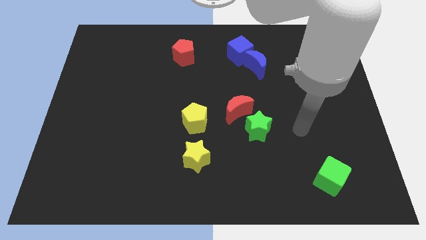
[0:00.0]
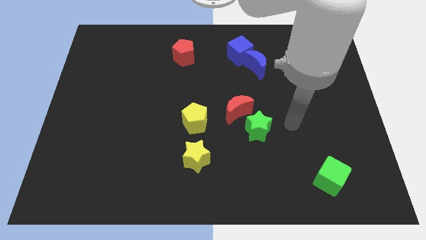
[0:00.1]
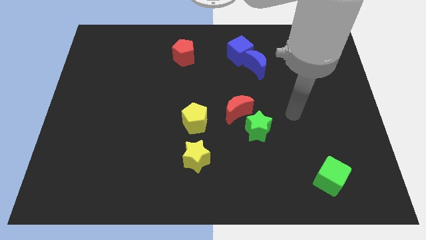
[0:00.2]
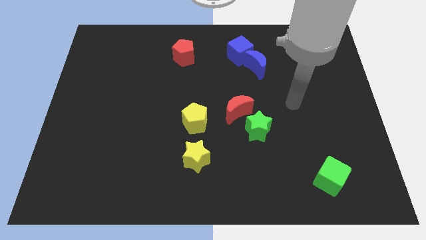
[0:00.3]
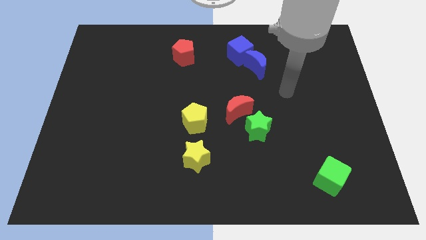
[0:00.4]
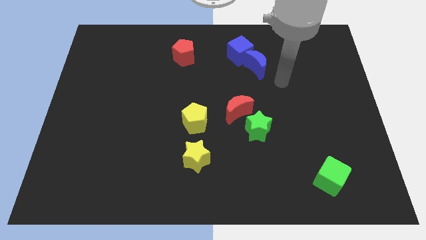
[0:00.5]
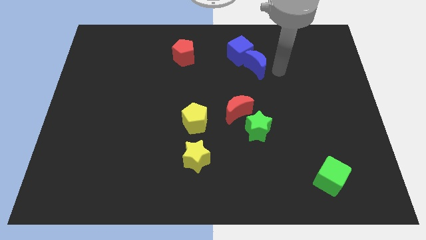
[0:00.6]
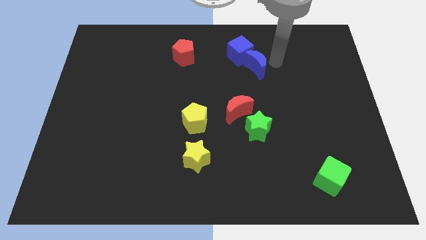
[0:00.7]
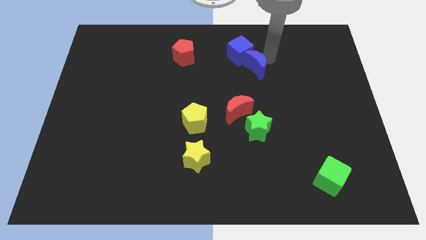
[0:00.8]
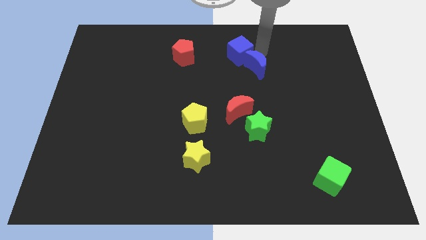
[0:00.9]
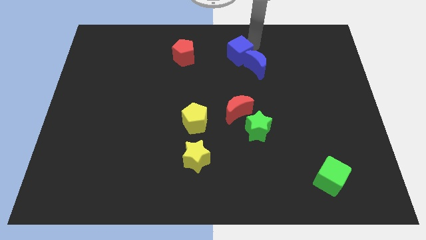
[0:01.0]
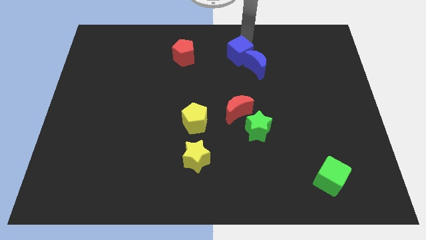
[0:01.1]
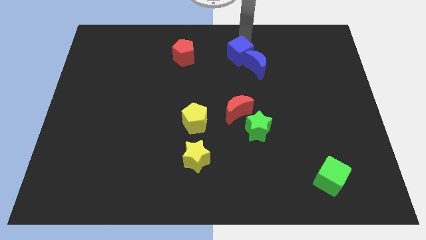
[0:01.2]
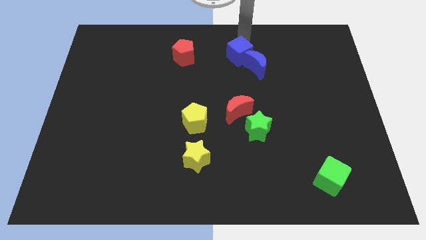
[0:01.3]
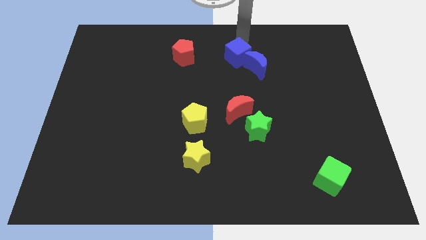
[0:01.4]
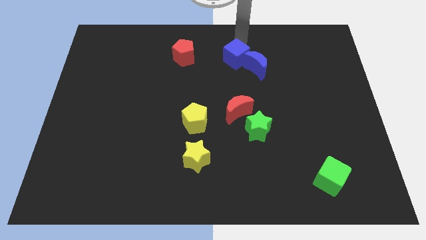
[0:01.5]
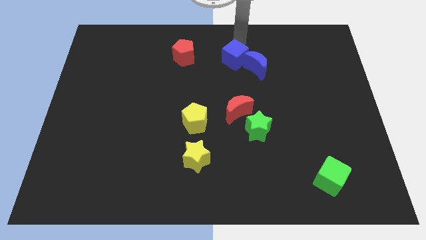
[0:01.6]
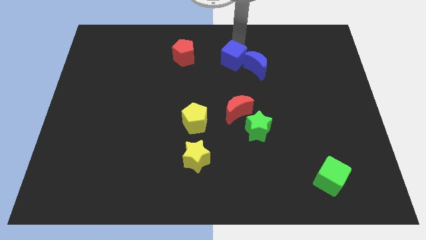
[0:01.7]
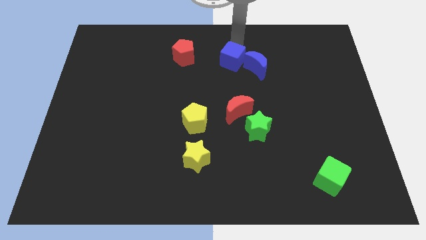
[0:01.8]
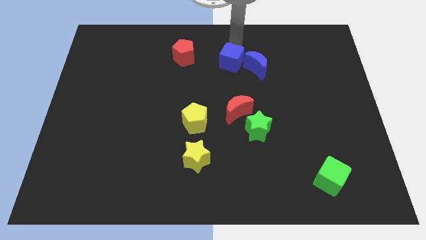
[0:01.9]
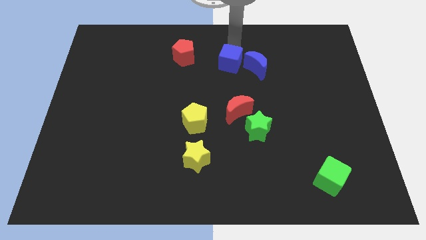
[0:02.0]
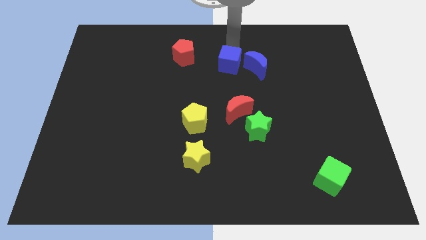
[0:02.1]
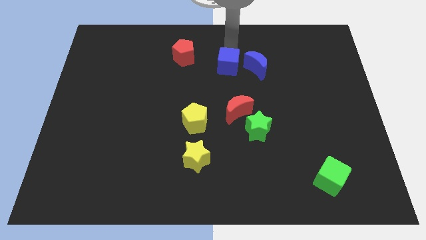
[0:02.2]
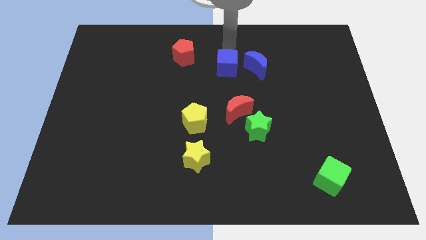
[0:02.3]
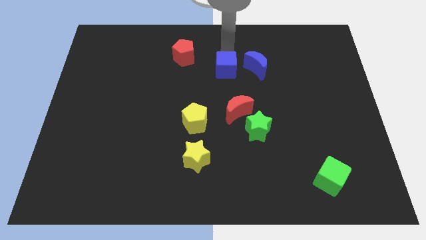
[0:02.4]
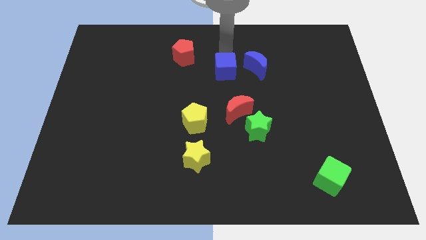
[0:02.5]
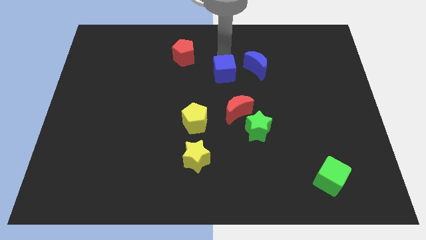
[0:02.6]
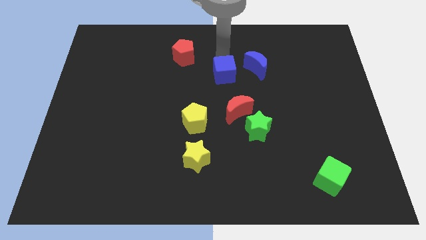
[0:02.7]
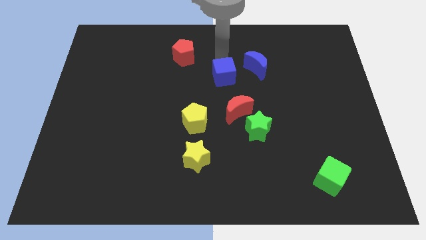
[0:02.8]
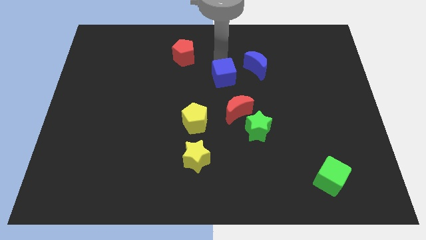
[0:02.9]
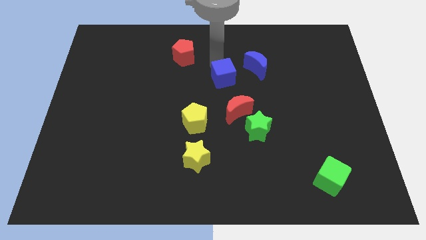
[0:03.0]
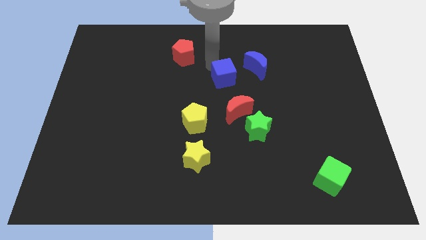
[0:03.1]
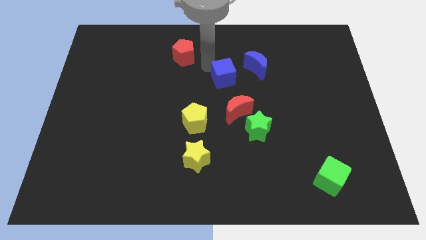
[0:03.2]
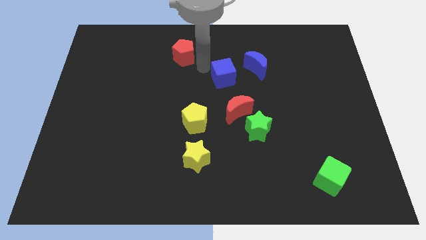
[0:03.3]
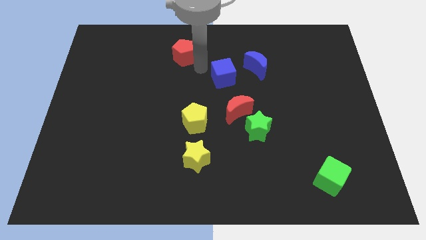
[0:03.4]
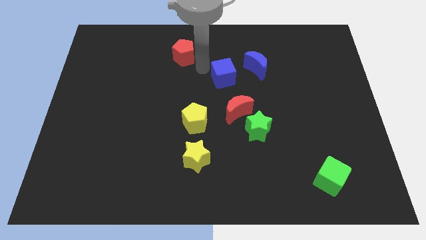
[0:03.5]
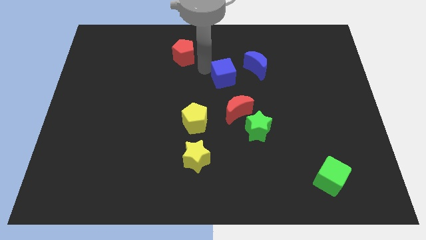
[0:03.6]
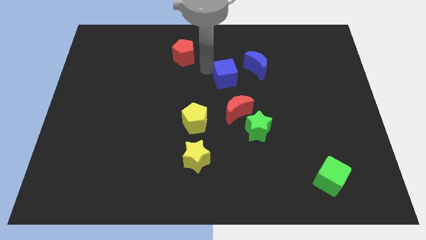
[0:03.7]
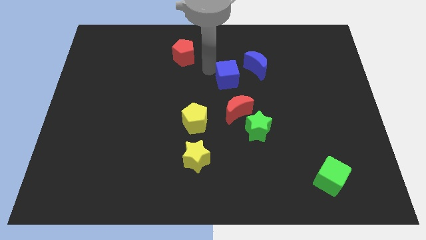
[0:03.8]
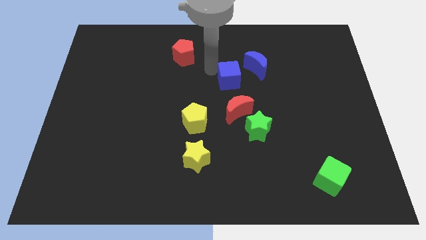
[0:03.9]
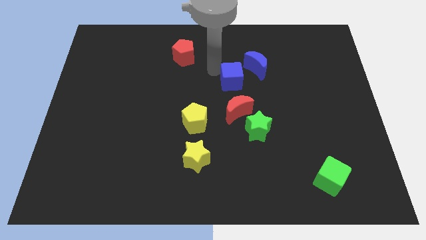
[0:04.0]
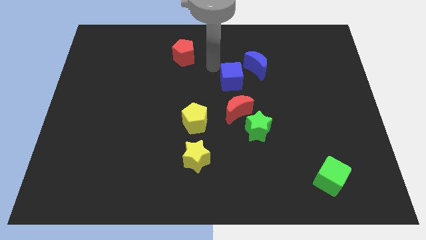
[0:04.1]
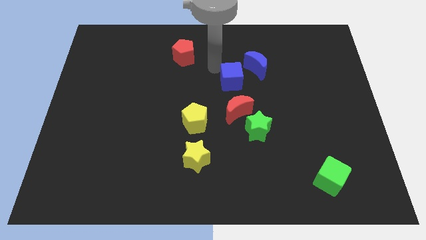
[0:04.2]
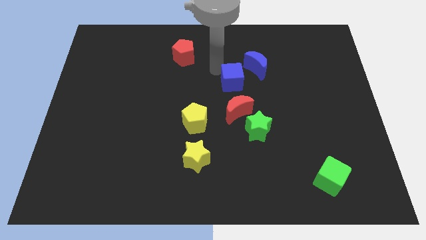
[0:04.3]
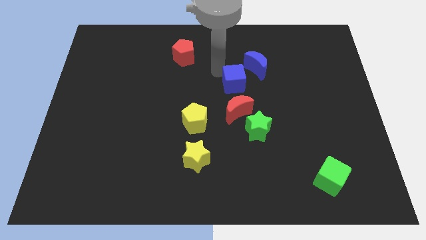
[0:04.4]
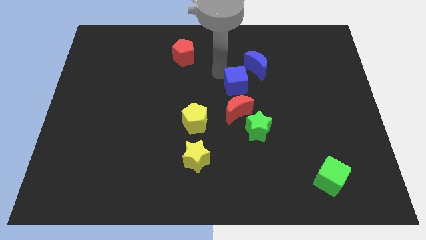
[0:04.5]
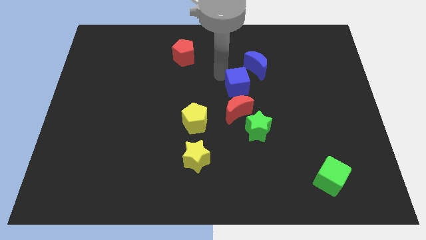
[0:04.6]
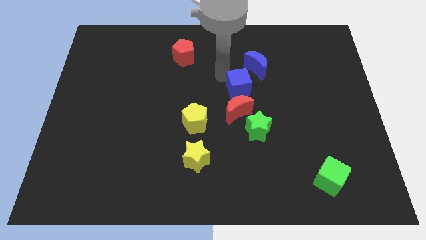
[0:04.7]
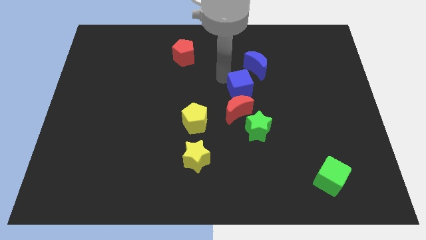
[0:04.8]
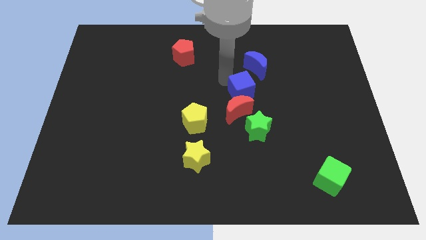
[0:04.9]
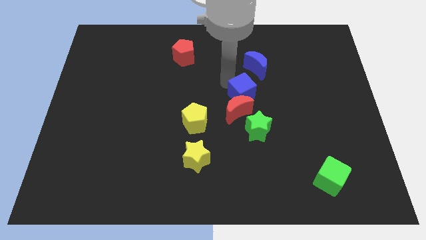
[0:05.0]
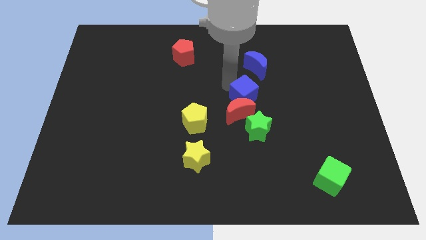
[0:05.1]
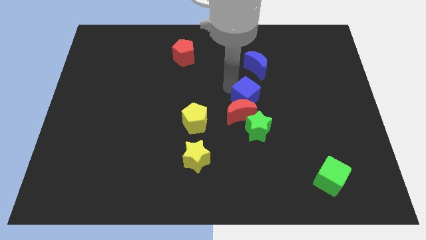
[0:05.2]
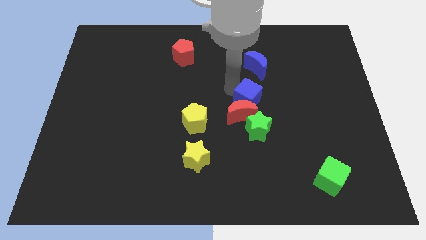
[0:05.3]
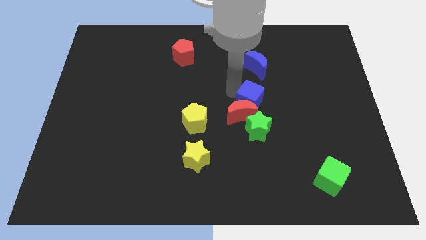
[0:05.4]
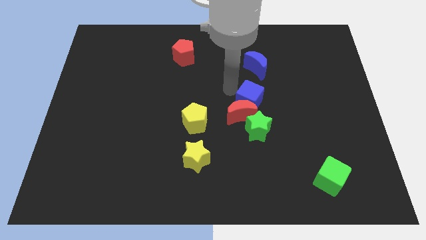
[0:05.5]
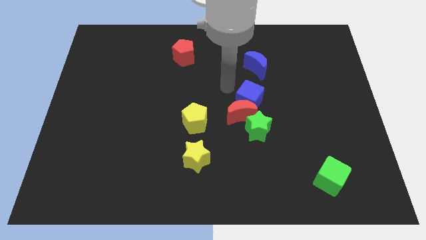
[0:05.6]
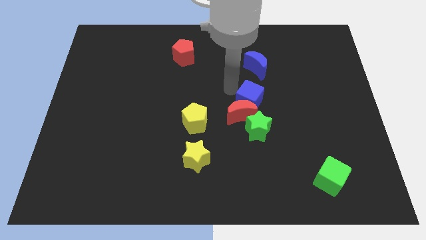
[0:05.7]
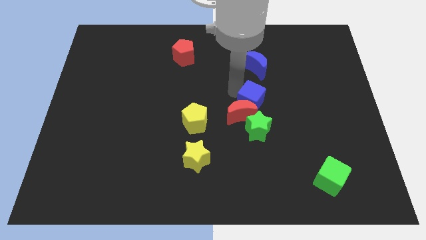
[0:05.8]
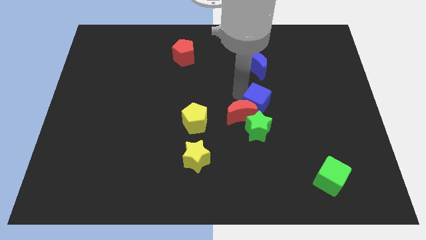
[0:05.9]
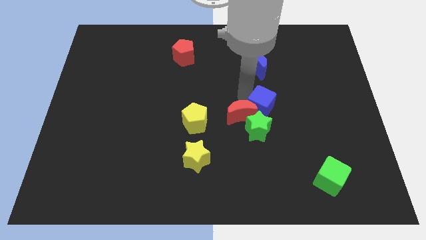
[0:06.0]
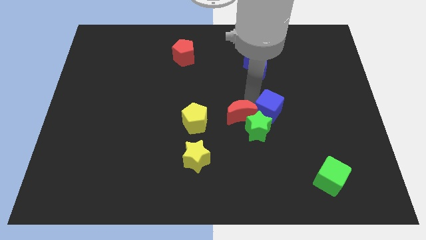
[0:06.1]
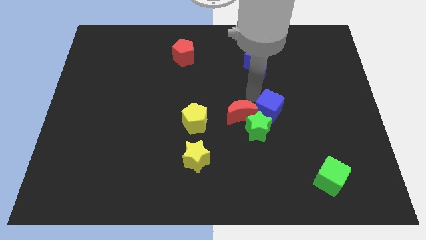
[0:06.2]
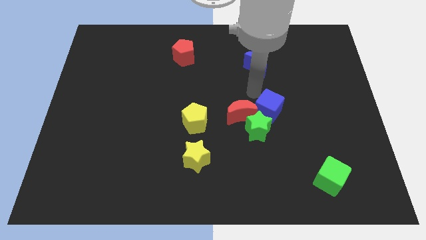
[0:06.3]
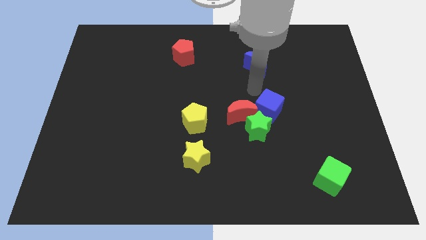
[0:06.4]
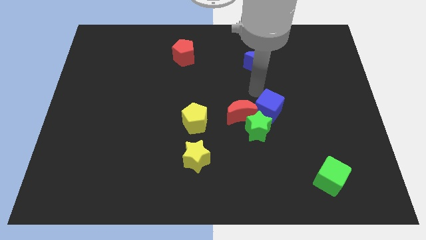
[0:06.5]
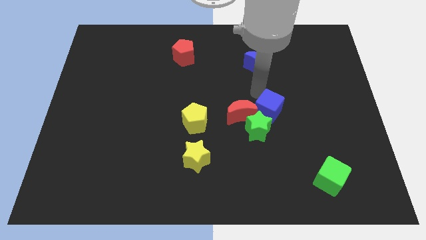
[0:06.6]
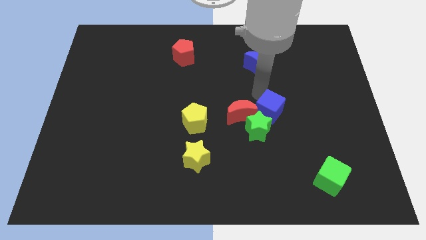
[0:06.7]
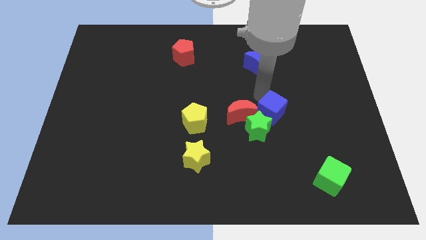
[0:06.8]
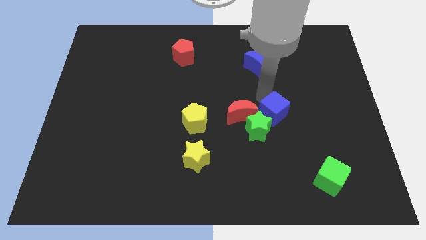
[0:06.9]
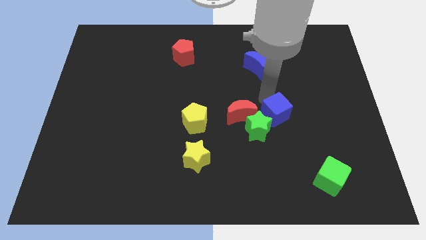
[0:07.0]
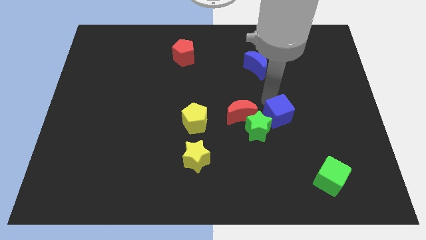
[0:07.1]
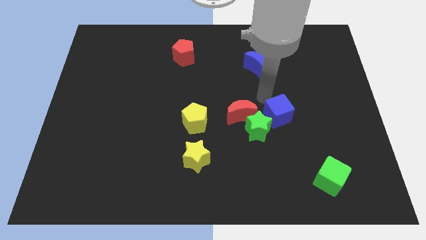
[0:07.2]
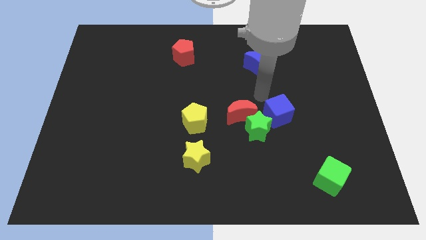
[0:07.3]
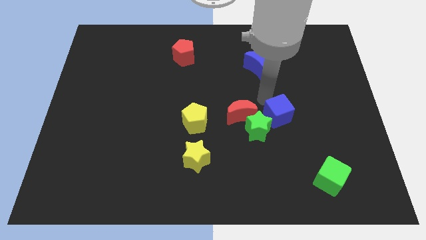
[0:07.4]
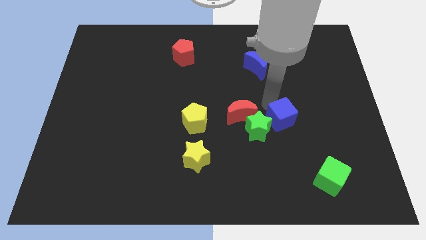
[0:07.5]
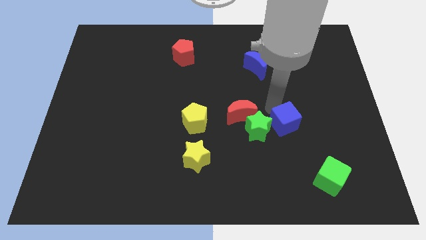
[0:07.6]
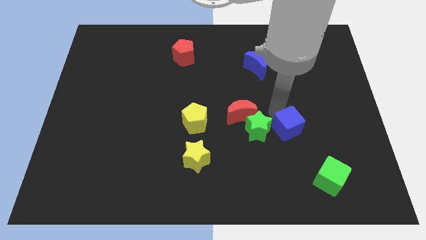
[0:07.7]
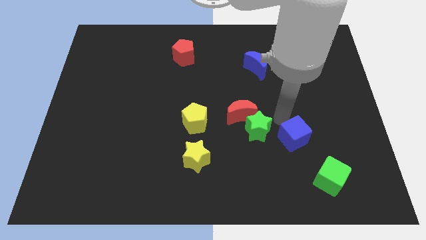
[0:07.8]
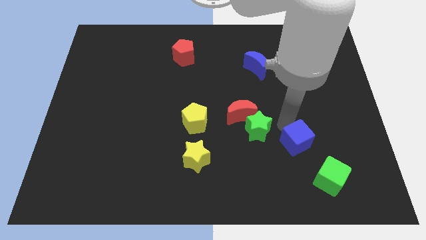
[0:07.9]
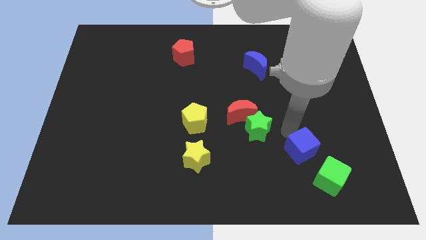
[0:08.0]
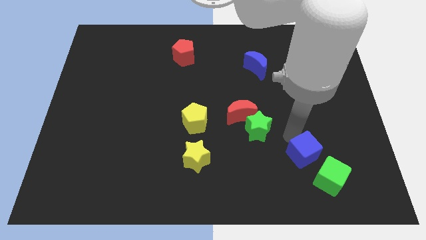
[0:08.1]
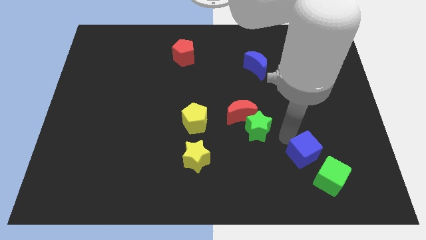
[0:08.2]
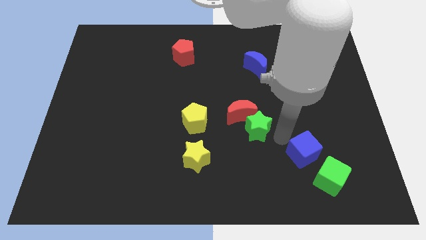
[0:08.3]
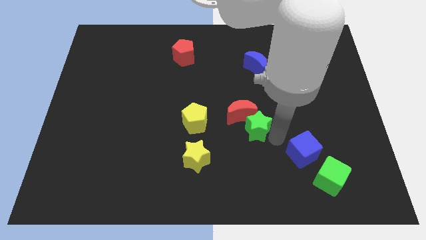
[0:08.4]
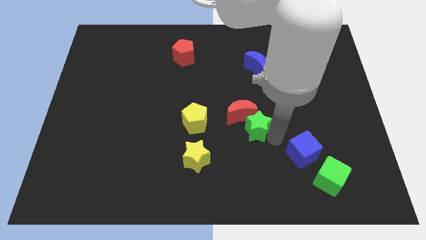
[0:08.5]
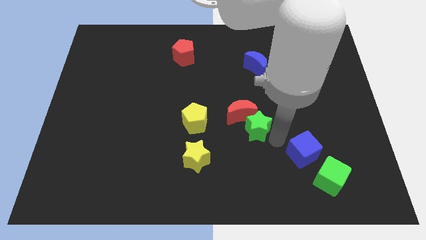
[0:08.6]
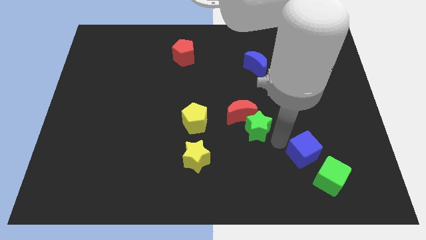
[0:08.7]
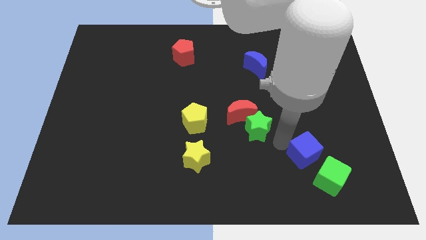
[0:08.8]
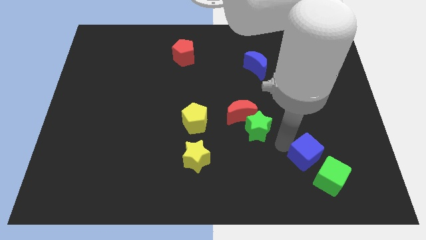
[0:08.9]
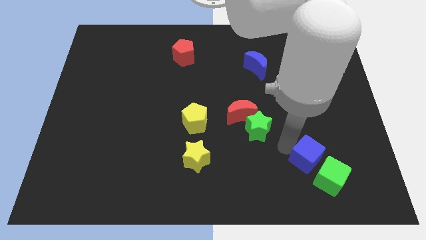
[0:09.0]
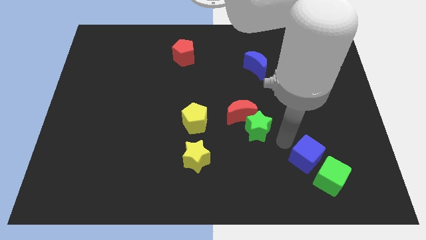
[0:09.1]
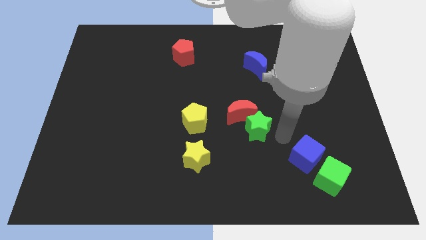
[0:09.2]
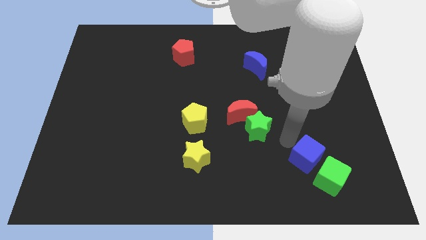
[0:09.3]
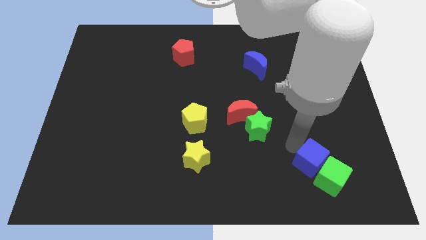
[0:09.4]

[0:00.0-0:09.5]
put the blue cube to the green cube
